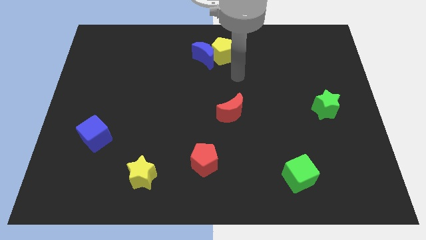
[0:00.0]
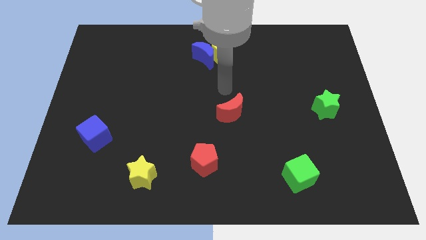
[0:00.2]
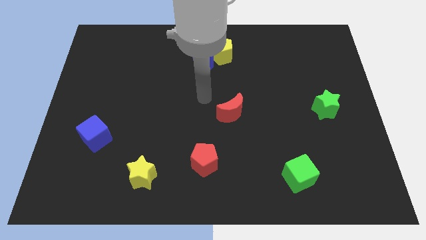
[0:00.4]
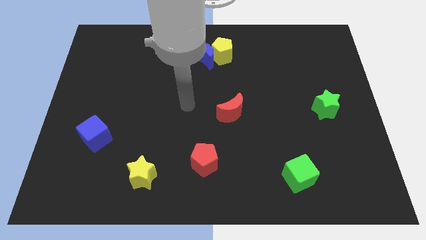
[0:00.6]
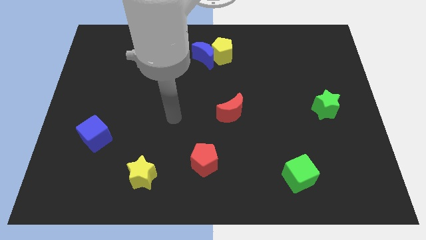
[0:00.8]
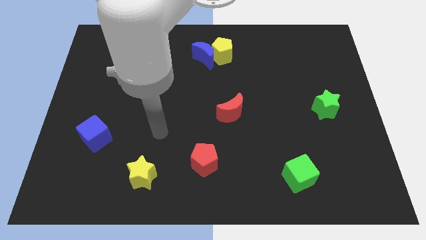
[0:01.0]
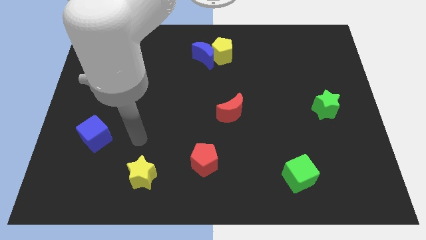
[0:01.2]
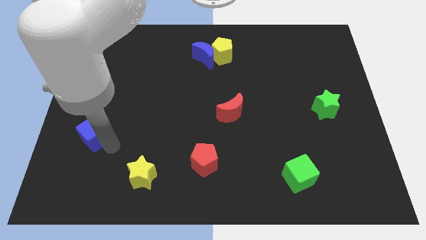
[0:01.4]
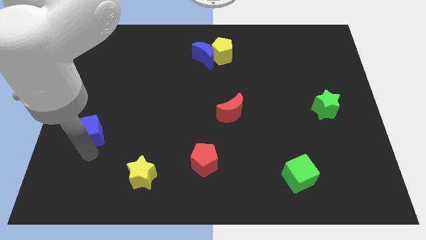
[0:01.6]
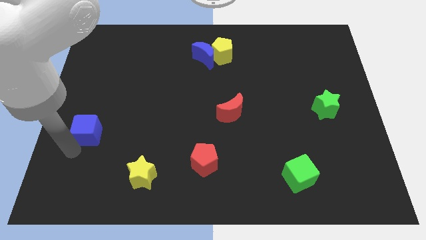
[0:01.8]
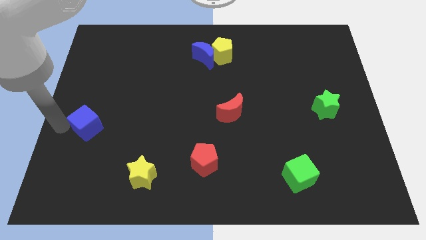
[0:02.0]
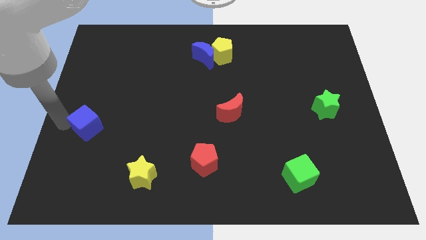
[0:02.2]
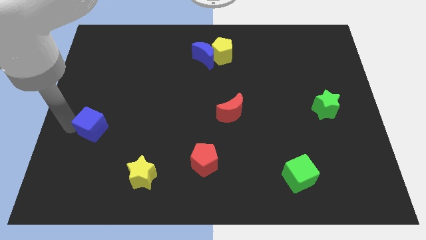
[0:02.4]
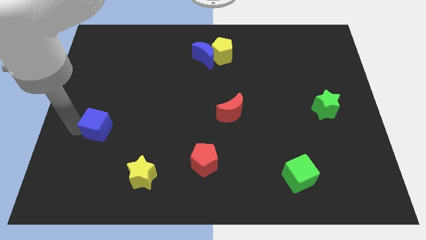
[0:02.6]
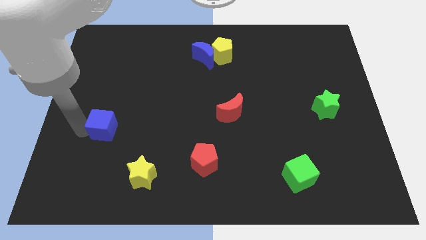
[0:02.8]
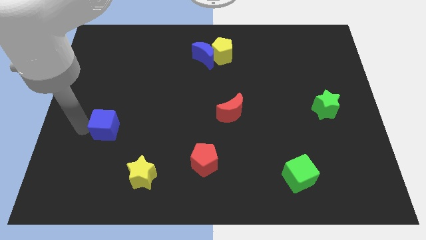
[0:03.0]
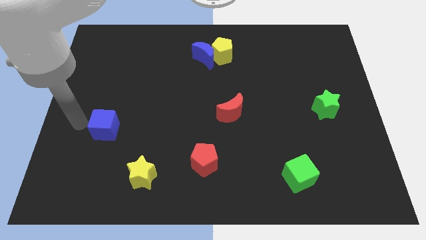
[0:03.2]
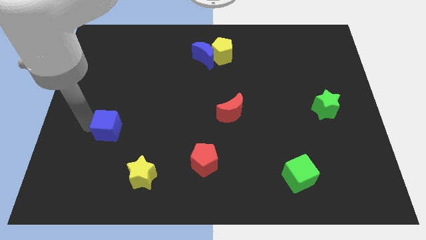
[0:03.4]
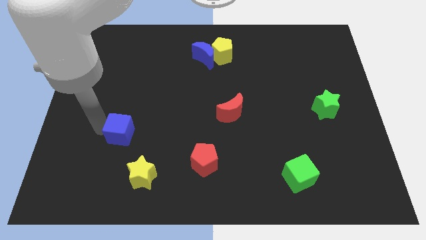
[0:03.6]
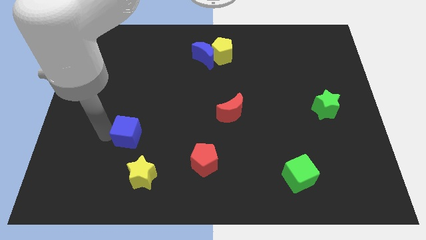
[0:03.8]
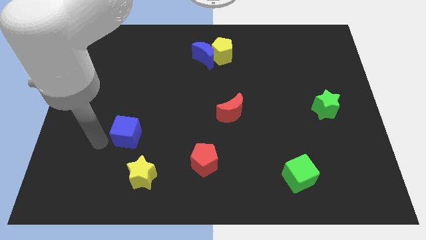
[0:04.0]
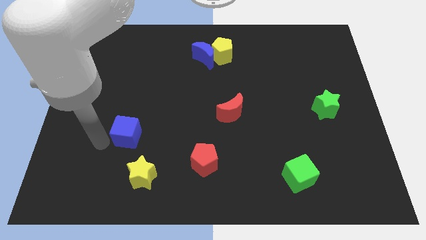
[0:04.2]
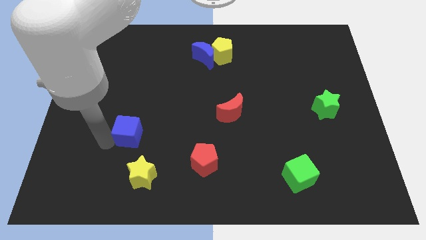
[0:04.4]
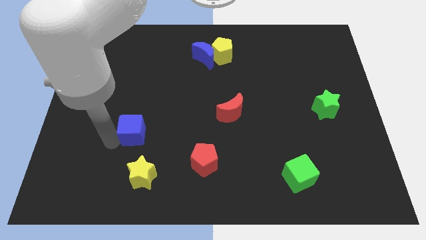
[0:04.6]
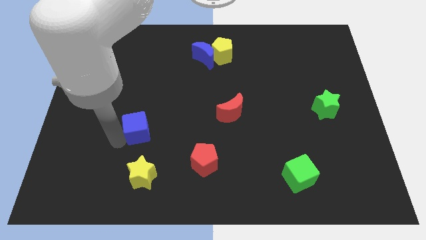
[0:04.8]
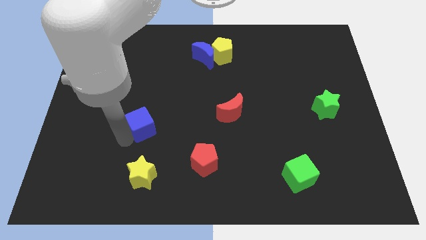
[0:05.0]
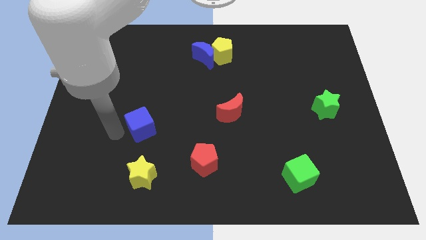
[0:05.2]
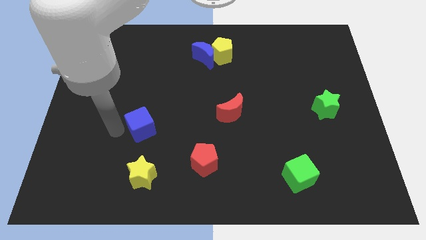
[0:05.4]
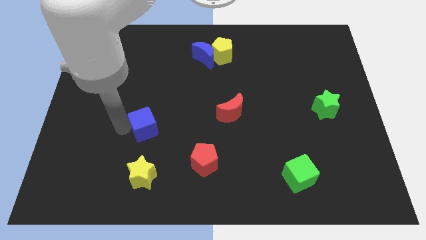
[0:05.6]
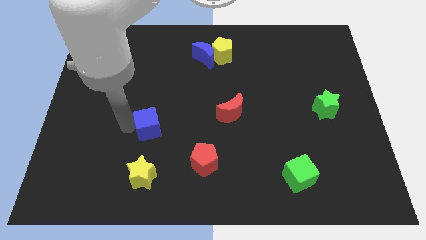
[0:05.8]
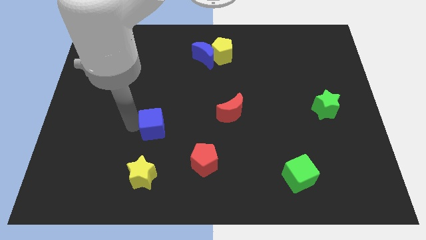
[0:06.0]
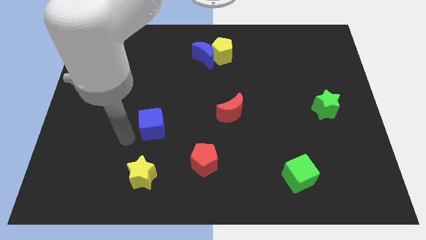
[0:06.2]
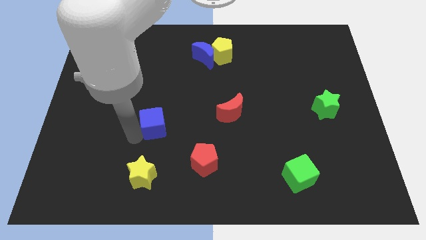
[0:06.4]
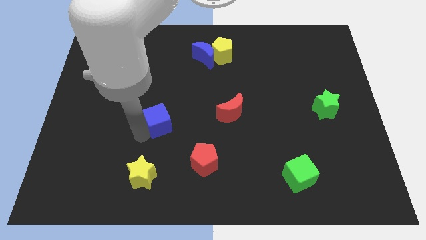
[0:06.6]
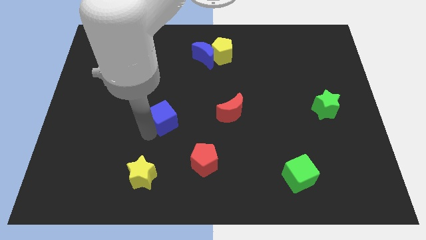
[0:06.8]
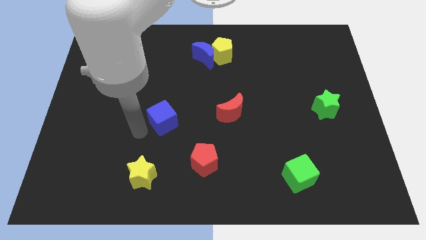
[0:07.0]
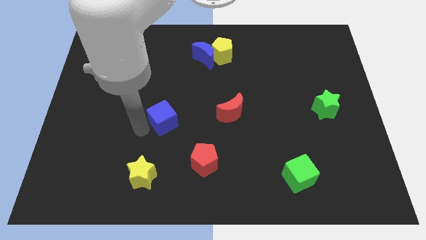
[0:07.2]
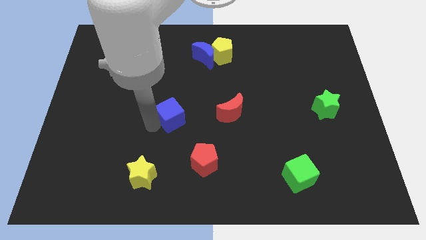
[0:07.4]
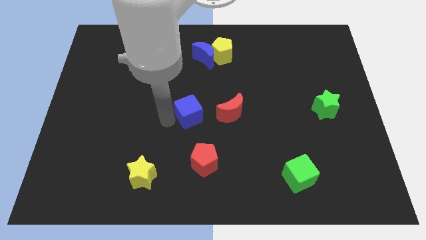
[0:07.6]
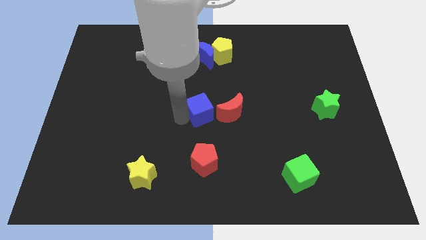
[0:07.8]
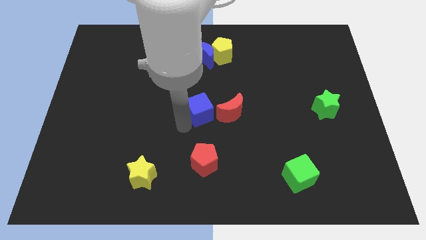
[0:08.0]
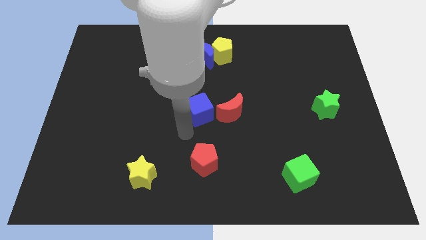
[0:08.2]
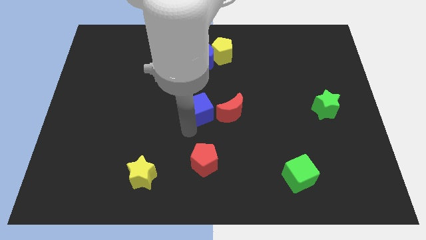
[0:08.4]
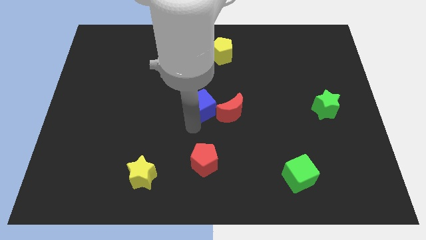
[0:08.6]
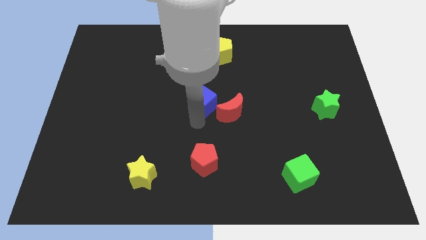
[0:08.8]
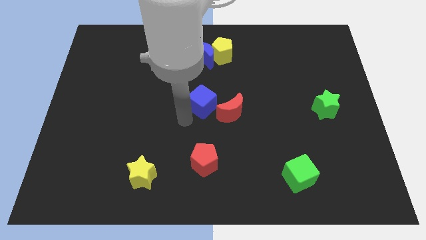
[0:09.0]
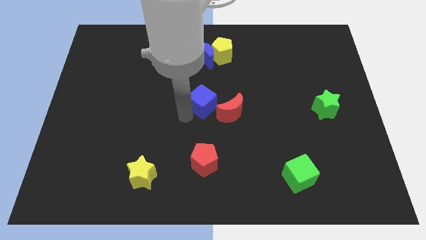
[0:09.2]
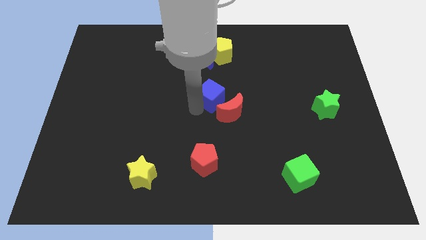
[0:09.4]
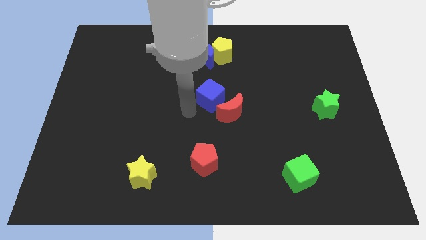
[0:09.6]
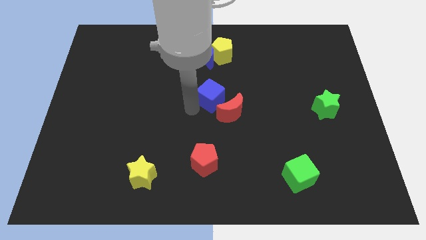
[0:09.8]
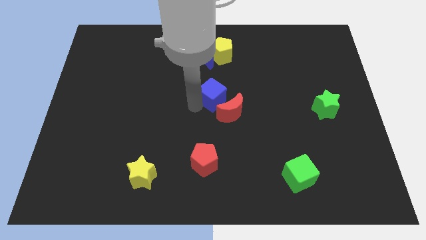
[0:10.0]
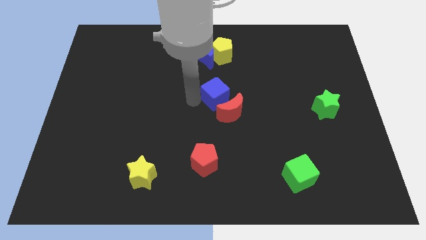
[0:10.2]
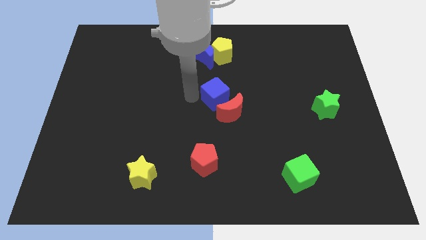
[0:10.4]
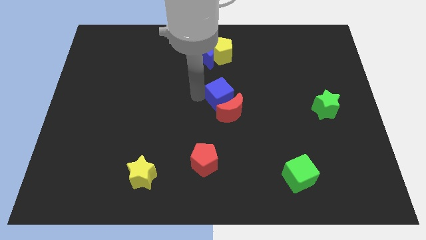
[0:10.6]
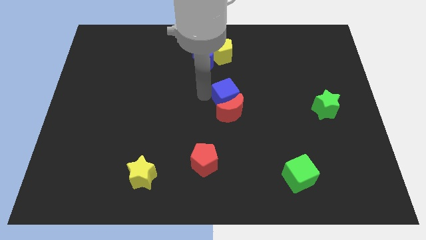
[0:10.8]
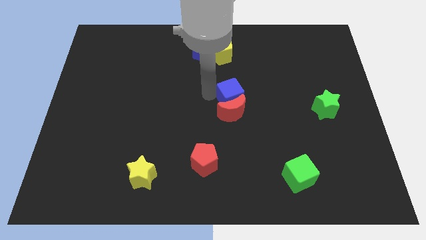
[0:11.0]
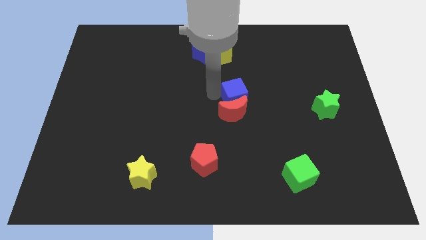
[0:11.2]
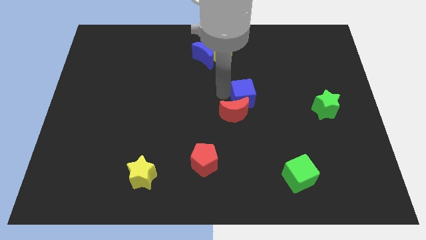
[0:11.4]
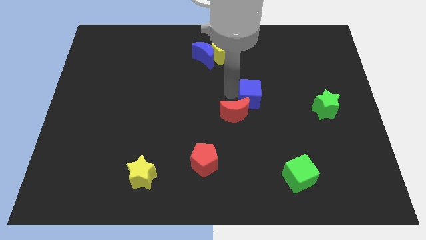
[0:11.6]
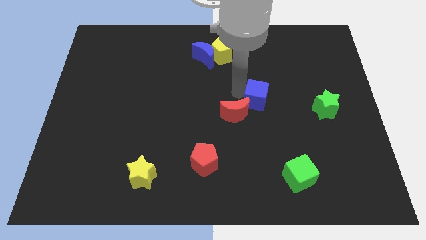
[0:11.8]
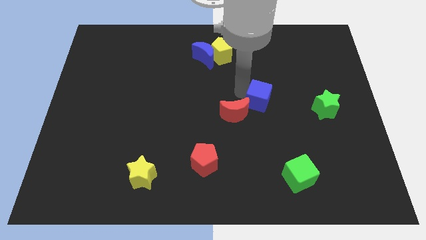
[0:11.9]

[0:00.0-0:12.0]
slide the blue cube just left of the green star

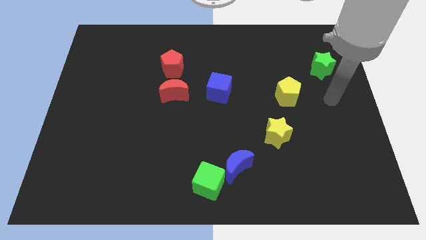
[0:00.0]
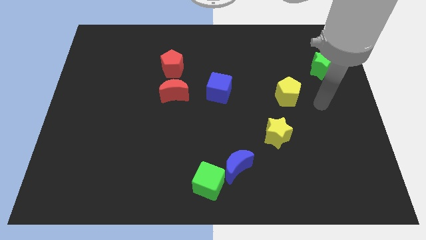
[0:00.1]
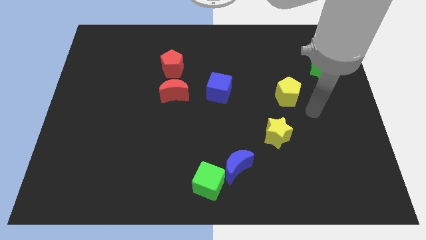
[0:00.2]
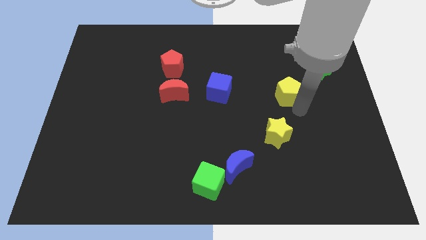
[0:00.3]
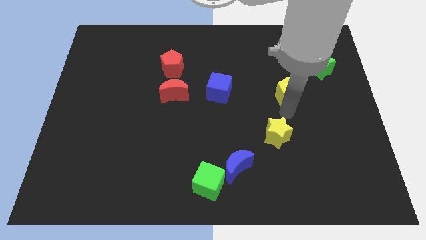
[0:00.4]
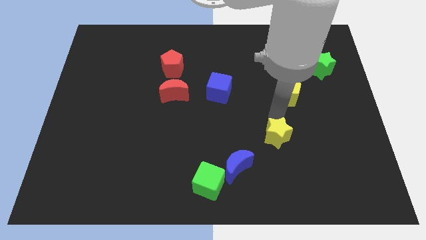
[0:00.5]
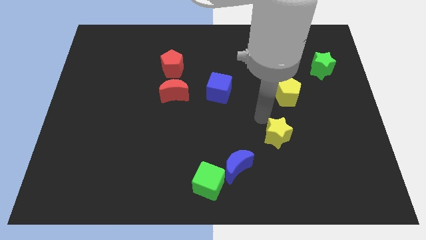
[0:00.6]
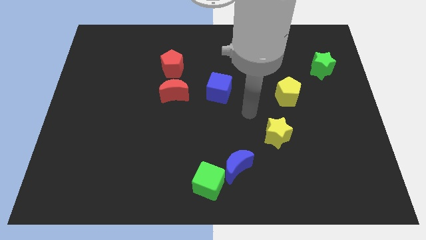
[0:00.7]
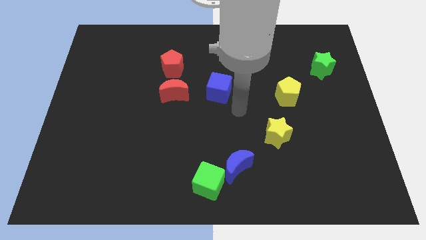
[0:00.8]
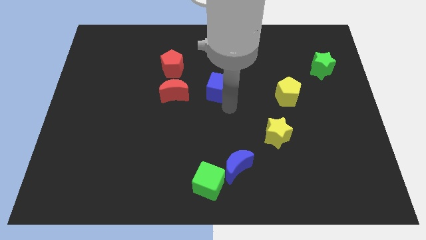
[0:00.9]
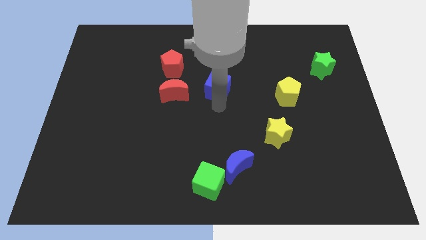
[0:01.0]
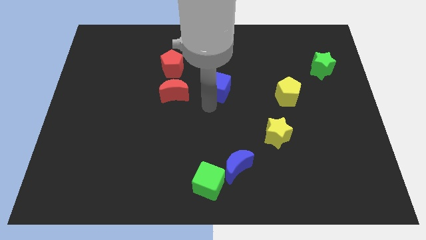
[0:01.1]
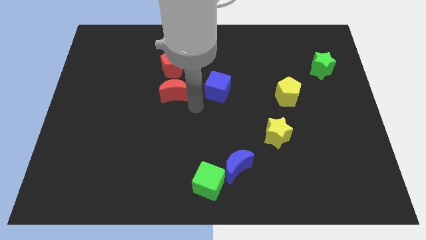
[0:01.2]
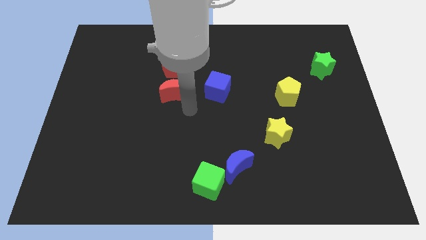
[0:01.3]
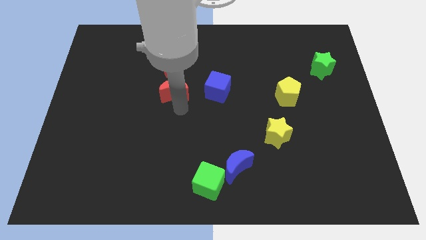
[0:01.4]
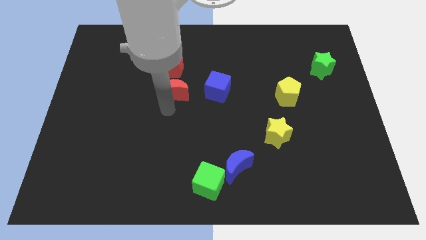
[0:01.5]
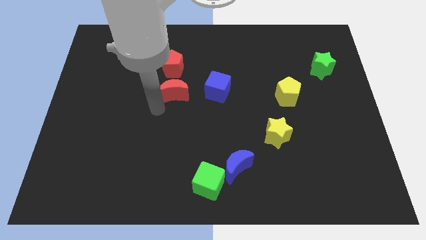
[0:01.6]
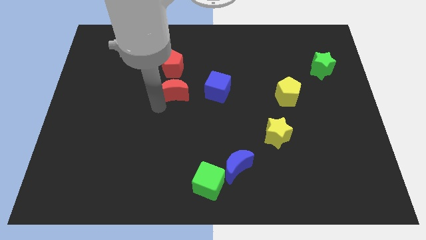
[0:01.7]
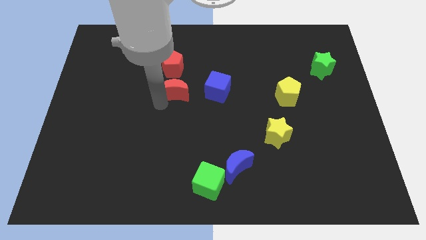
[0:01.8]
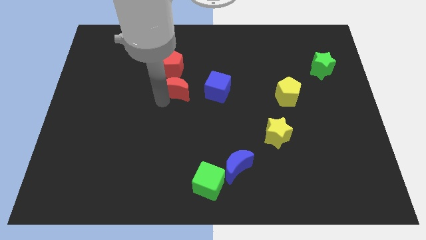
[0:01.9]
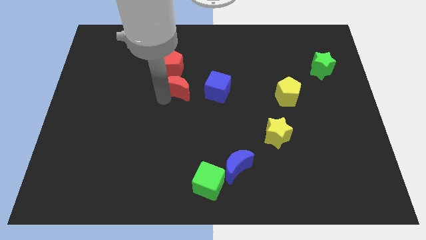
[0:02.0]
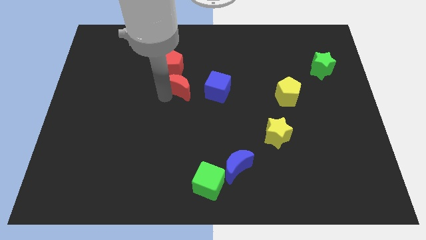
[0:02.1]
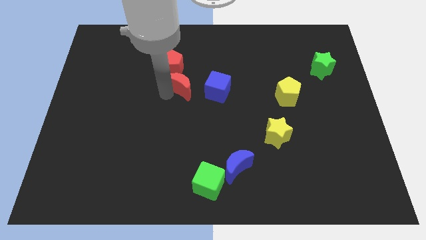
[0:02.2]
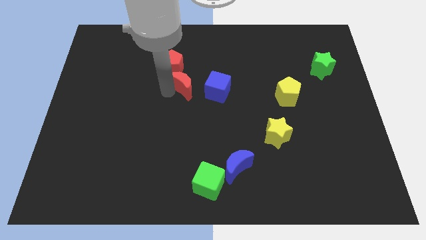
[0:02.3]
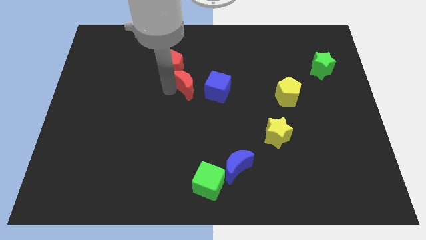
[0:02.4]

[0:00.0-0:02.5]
move the red moon diagonally up and to the left of the blue cube
